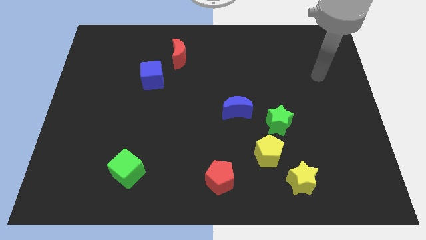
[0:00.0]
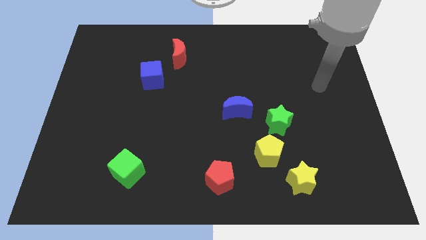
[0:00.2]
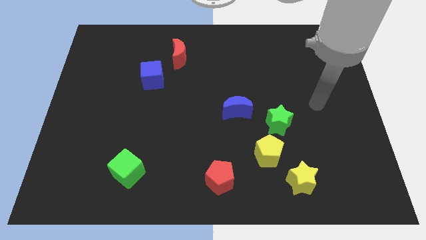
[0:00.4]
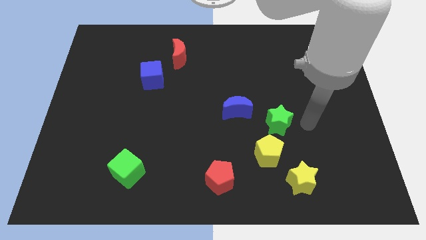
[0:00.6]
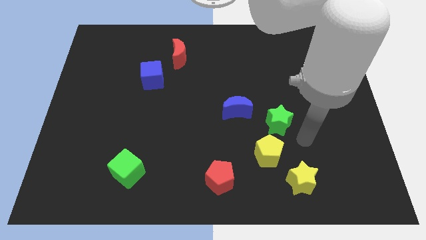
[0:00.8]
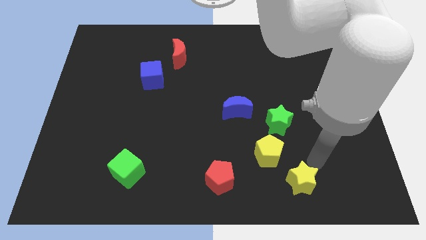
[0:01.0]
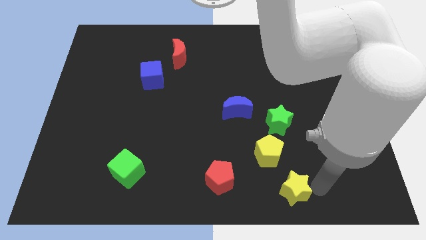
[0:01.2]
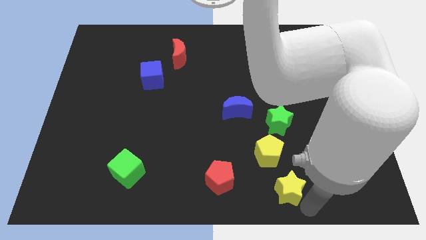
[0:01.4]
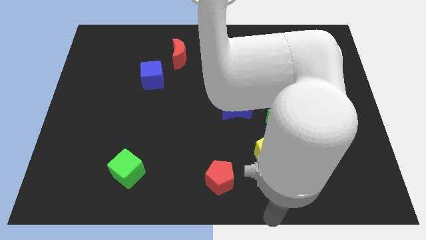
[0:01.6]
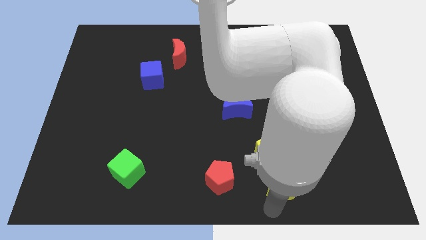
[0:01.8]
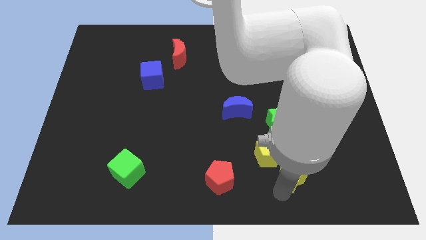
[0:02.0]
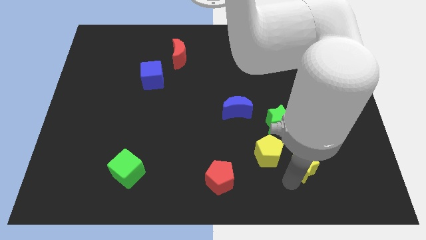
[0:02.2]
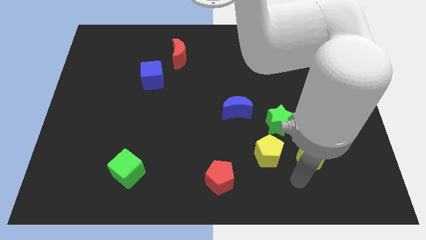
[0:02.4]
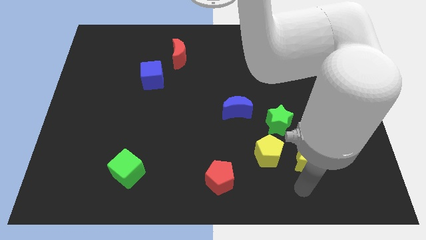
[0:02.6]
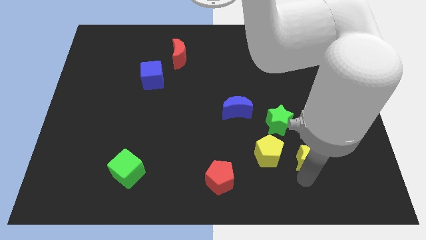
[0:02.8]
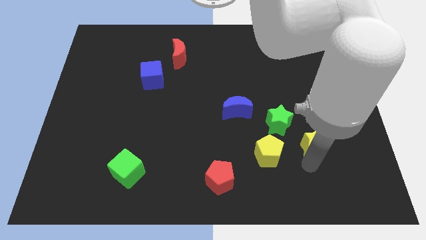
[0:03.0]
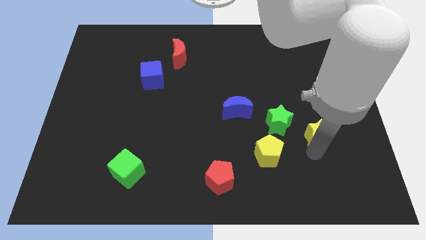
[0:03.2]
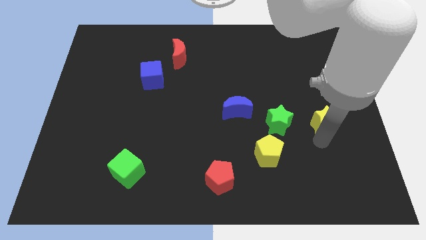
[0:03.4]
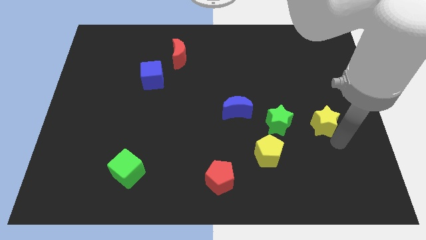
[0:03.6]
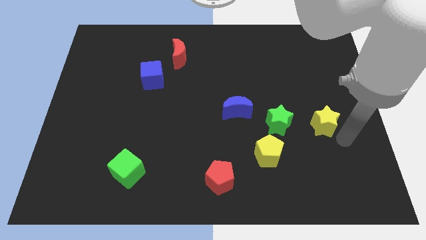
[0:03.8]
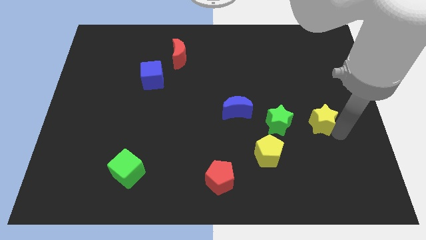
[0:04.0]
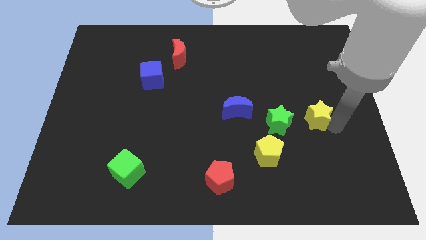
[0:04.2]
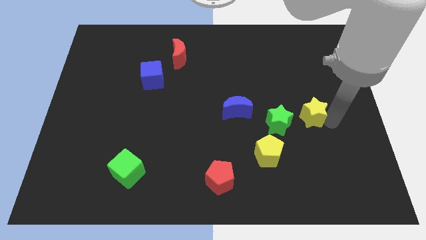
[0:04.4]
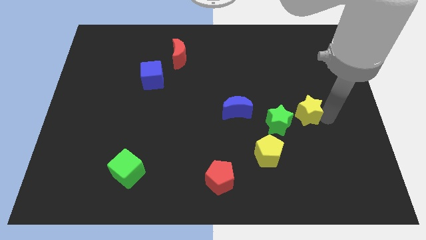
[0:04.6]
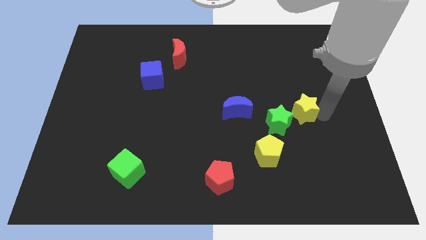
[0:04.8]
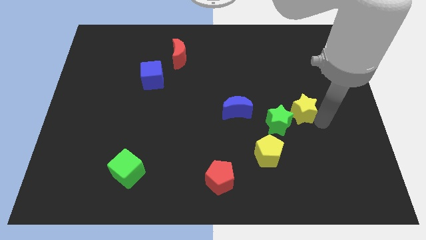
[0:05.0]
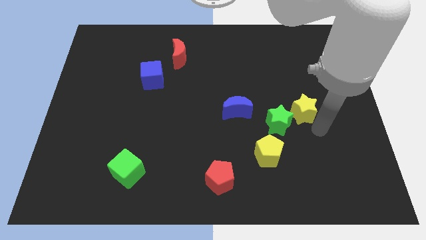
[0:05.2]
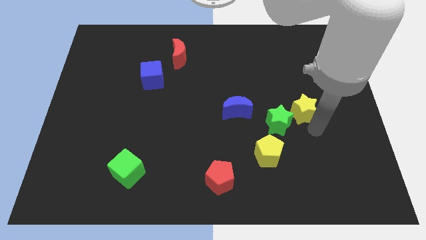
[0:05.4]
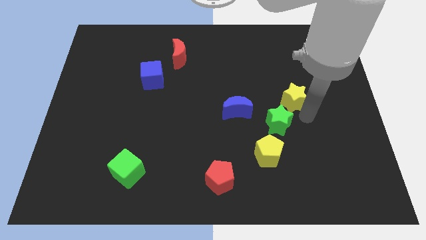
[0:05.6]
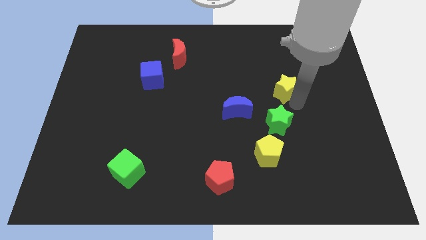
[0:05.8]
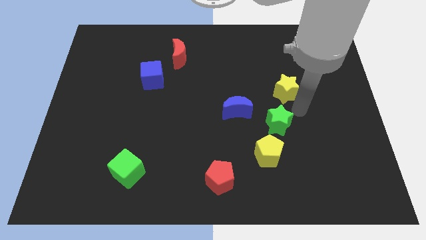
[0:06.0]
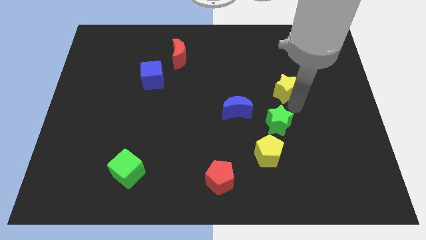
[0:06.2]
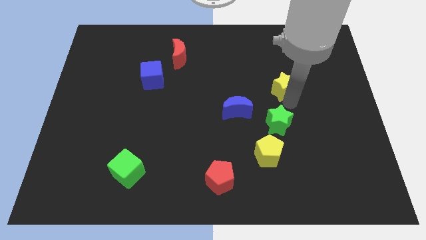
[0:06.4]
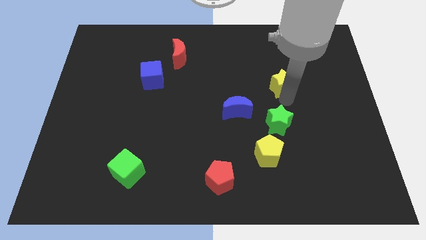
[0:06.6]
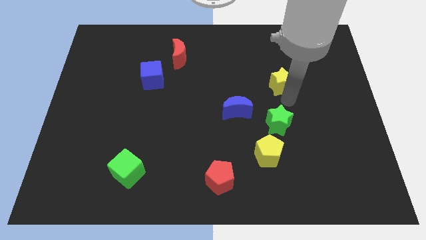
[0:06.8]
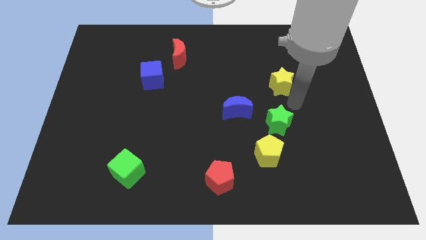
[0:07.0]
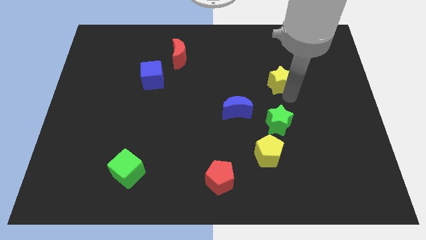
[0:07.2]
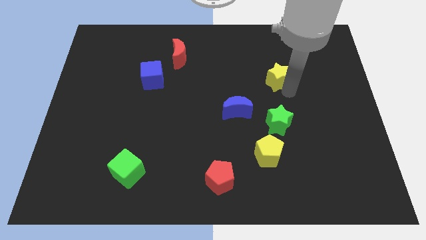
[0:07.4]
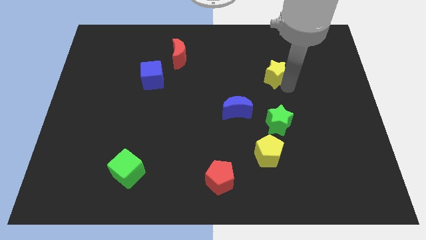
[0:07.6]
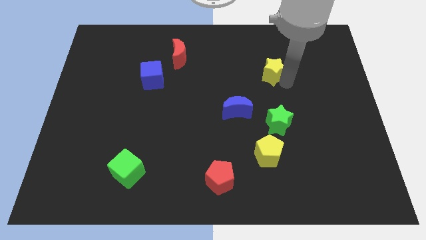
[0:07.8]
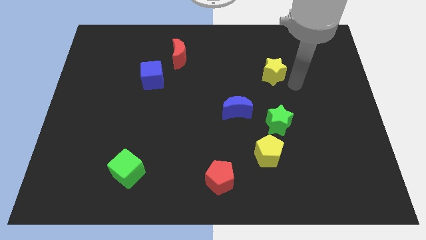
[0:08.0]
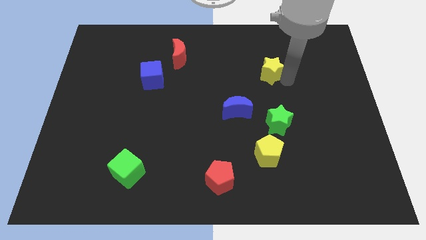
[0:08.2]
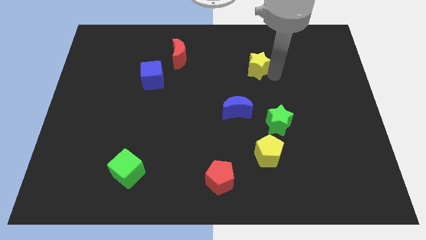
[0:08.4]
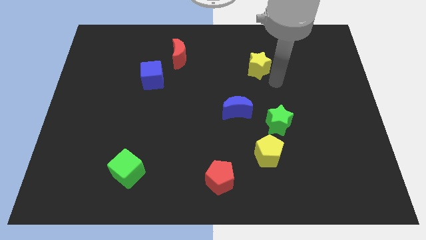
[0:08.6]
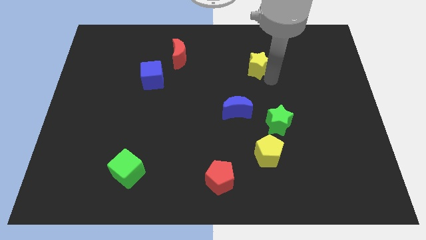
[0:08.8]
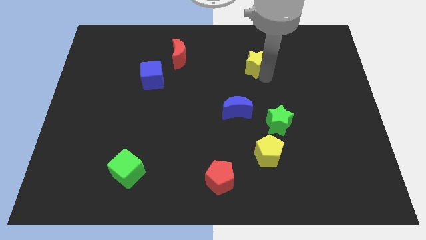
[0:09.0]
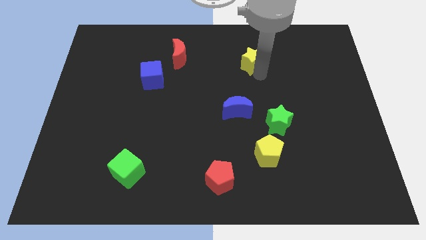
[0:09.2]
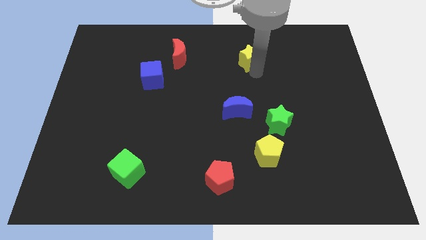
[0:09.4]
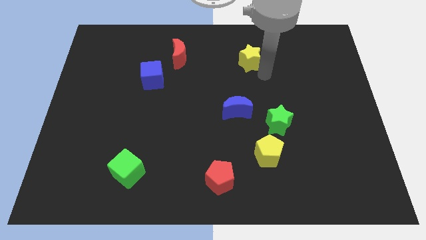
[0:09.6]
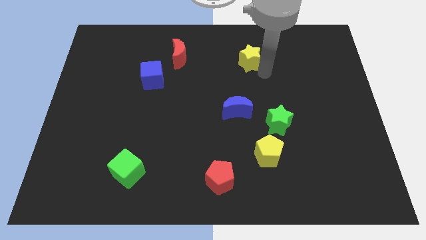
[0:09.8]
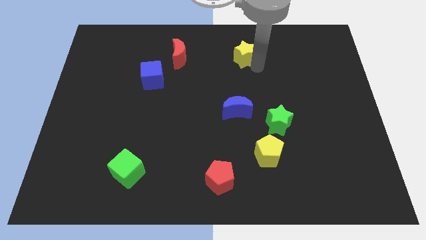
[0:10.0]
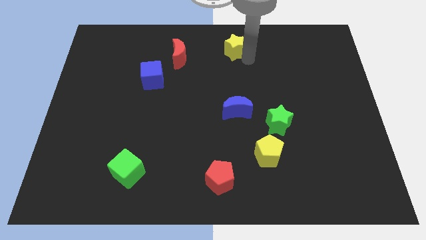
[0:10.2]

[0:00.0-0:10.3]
slide the yellow star to the top side
